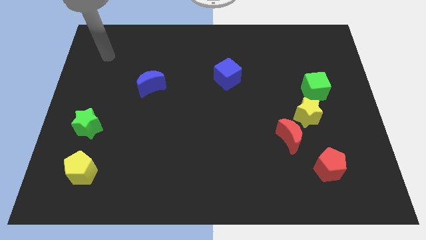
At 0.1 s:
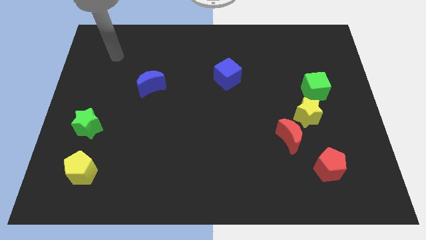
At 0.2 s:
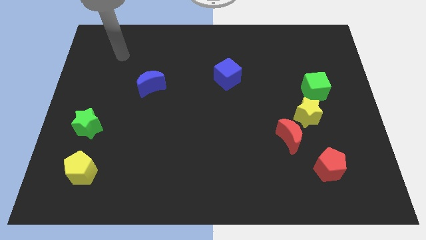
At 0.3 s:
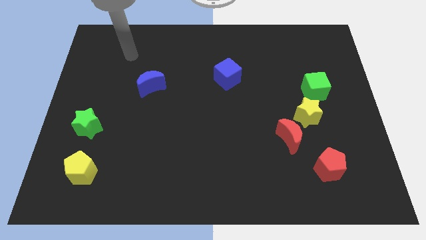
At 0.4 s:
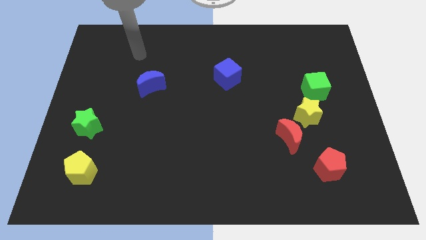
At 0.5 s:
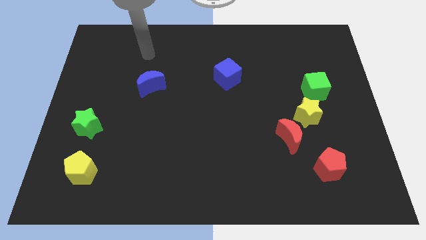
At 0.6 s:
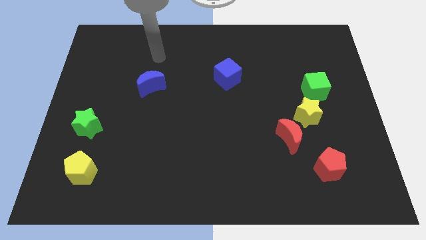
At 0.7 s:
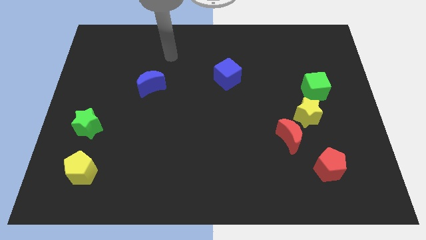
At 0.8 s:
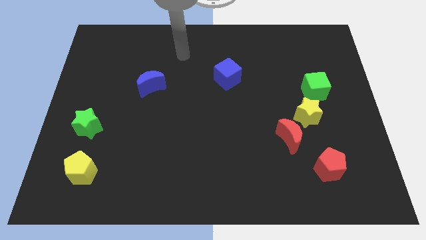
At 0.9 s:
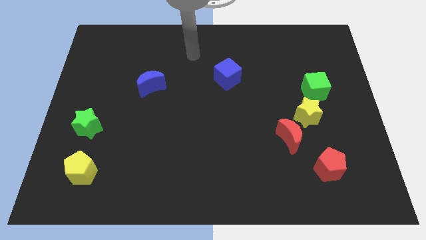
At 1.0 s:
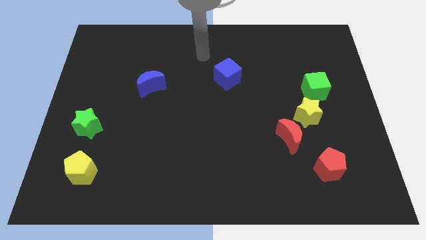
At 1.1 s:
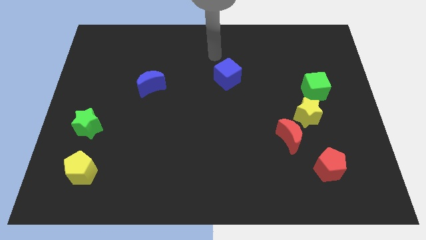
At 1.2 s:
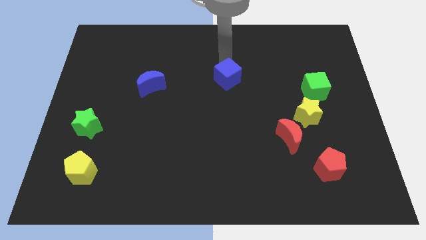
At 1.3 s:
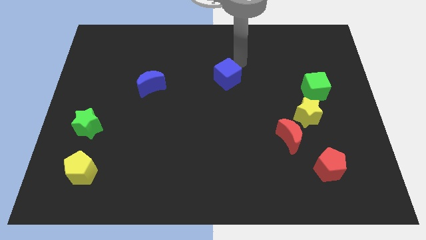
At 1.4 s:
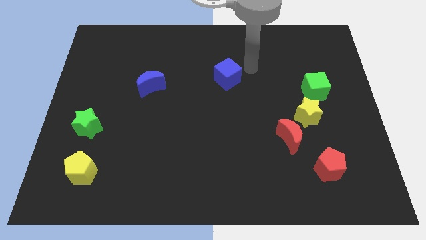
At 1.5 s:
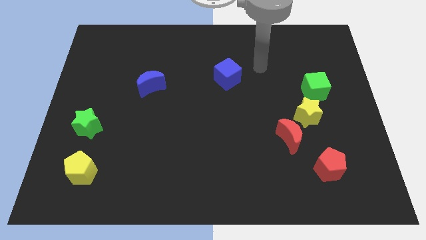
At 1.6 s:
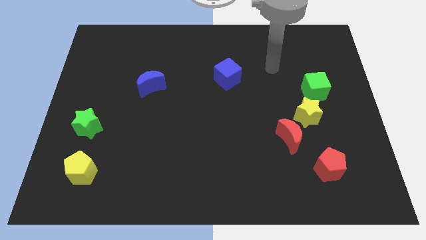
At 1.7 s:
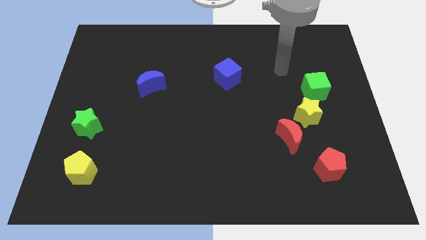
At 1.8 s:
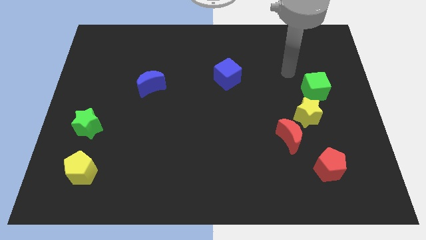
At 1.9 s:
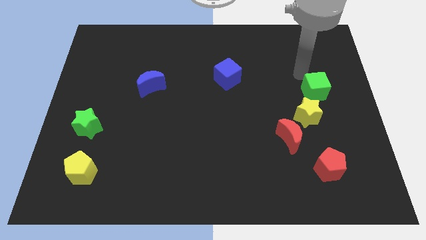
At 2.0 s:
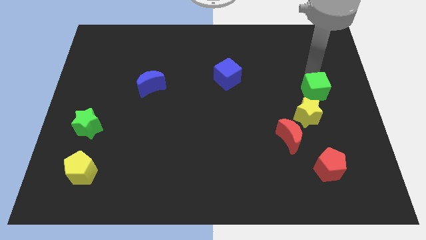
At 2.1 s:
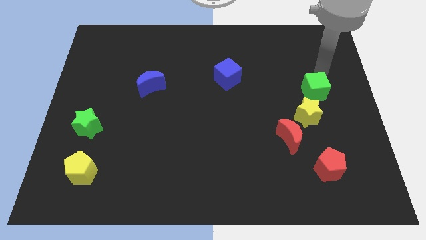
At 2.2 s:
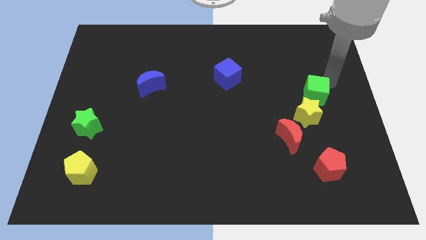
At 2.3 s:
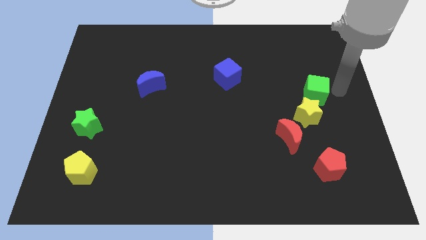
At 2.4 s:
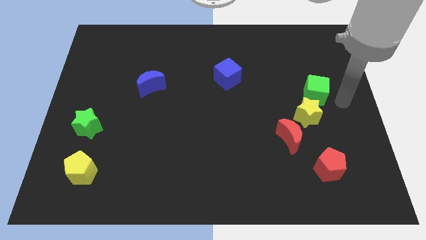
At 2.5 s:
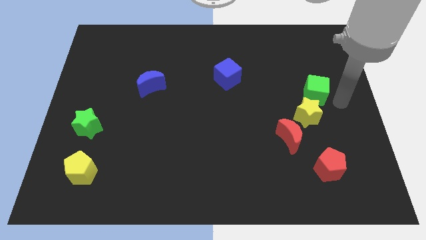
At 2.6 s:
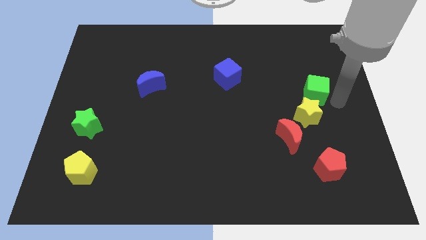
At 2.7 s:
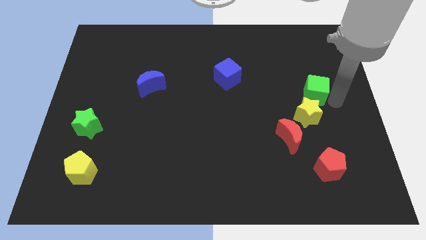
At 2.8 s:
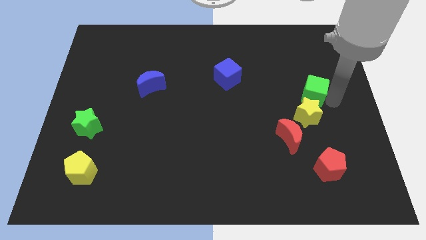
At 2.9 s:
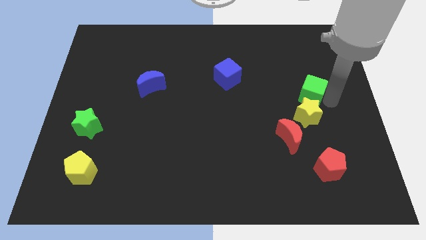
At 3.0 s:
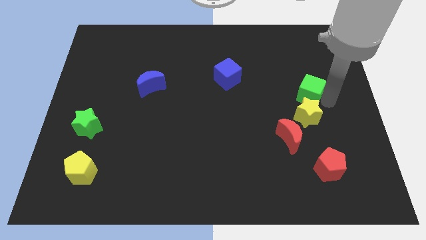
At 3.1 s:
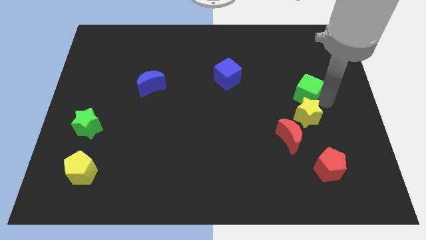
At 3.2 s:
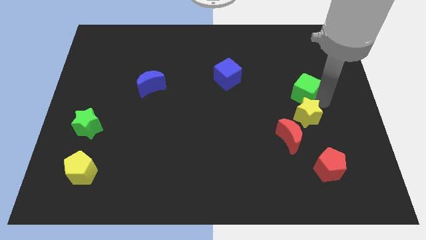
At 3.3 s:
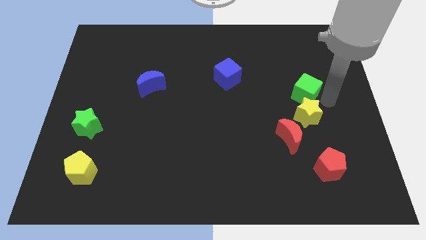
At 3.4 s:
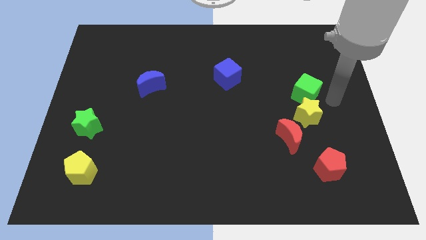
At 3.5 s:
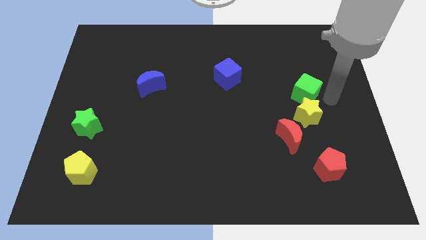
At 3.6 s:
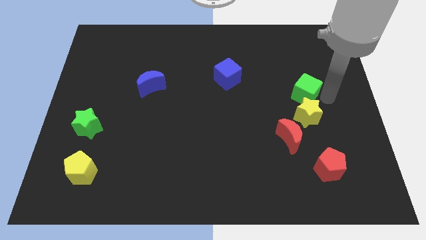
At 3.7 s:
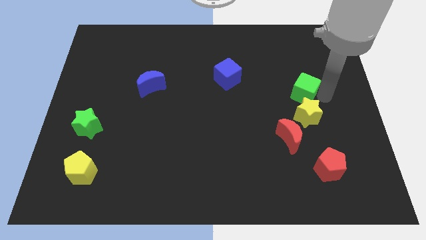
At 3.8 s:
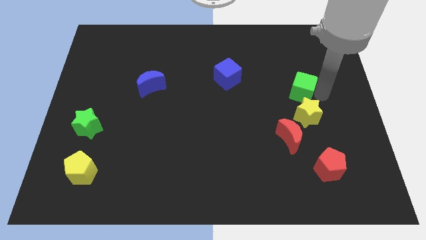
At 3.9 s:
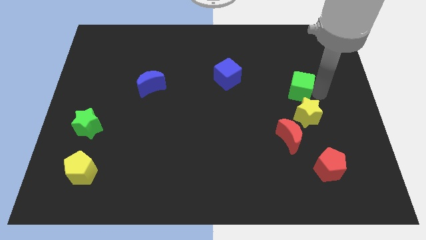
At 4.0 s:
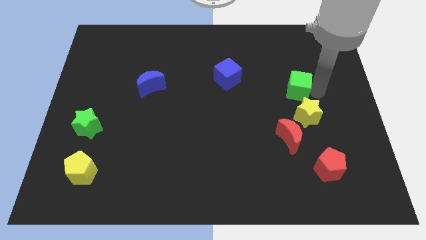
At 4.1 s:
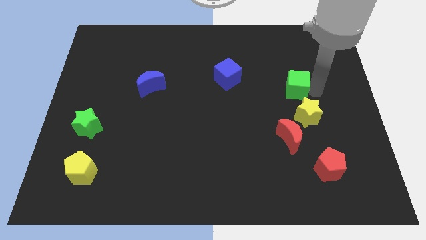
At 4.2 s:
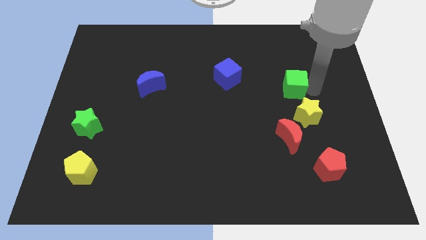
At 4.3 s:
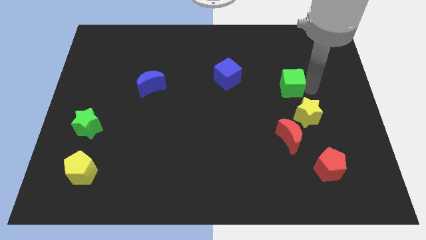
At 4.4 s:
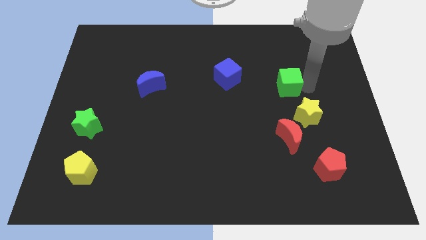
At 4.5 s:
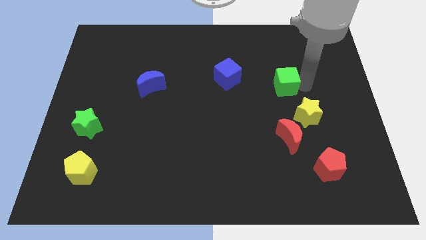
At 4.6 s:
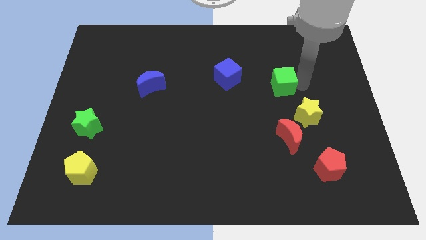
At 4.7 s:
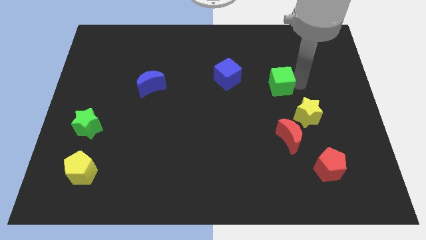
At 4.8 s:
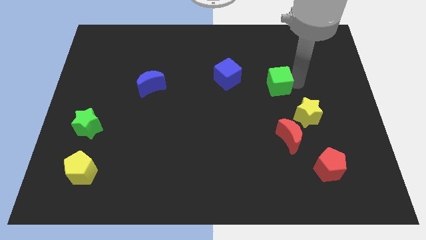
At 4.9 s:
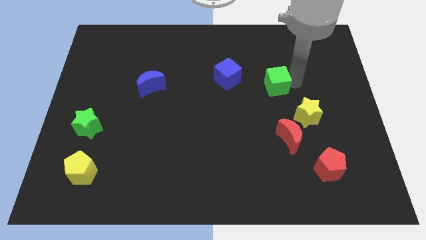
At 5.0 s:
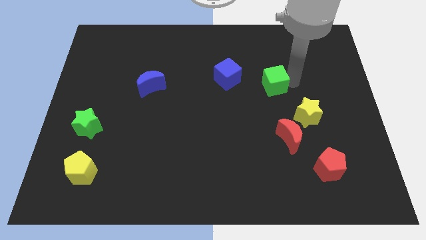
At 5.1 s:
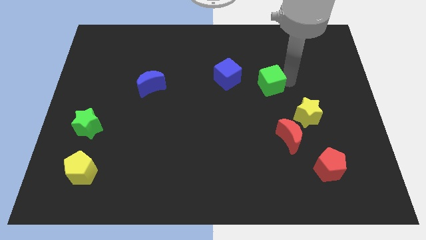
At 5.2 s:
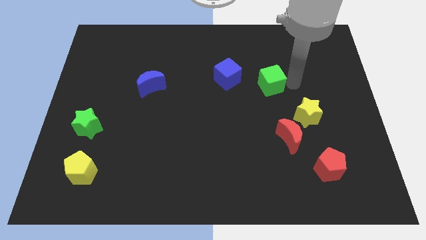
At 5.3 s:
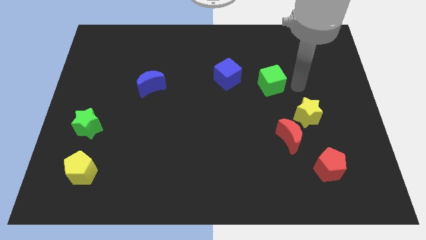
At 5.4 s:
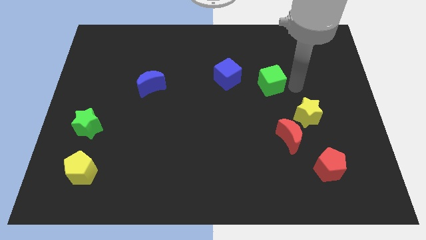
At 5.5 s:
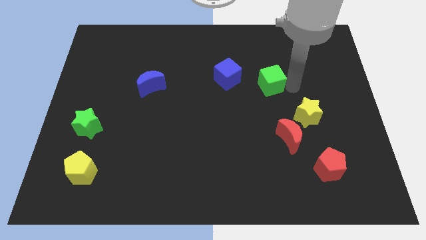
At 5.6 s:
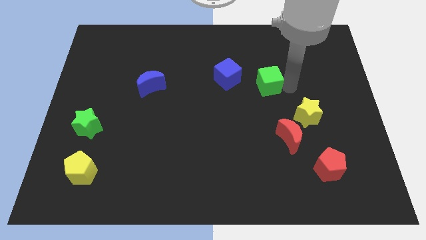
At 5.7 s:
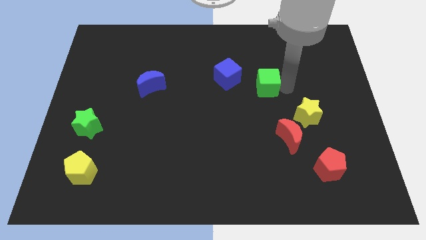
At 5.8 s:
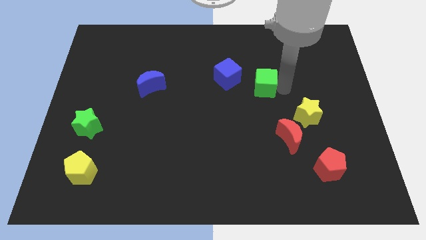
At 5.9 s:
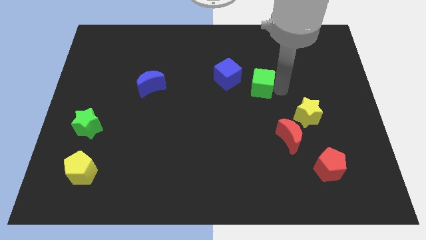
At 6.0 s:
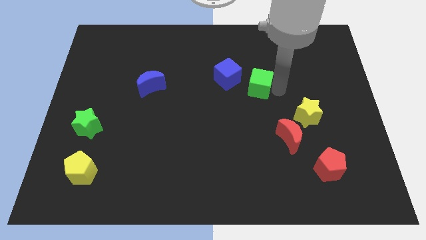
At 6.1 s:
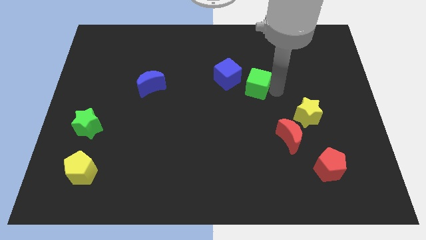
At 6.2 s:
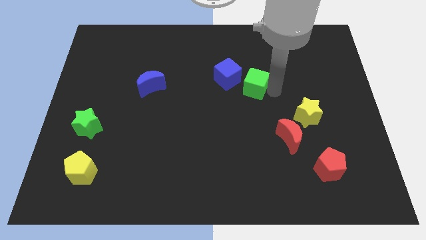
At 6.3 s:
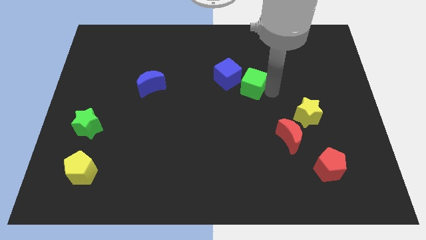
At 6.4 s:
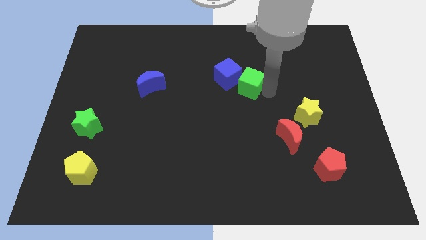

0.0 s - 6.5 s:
push the green cube next to the blue cube
